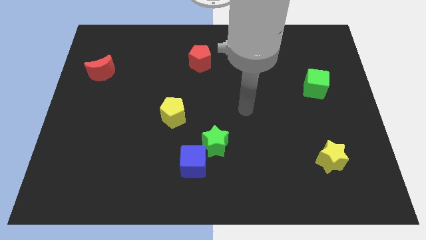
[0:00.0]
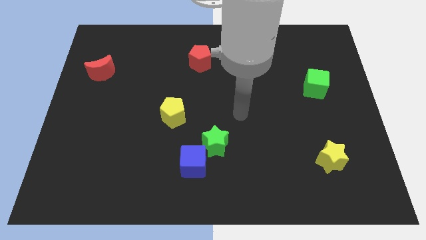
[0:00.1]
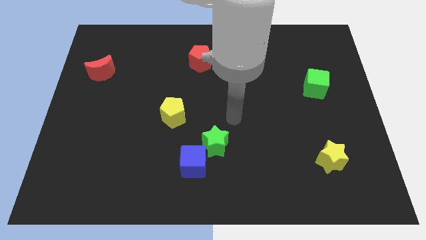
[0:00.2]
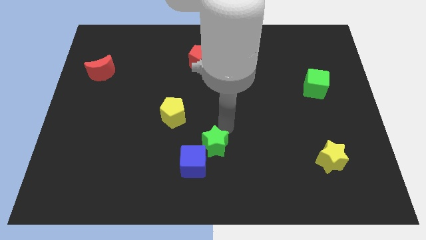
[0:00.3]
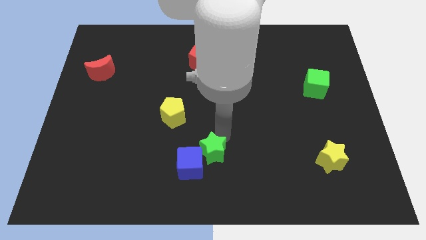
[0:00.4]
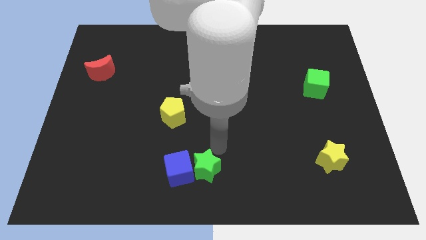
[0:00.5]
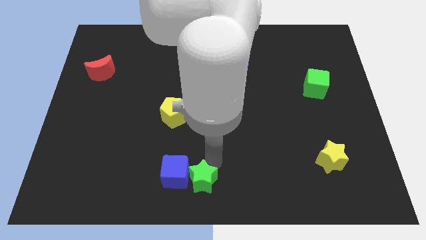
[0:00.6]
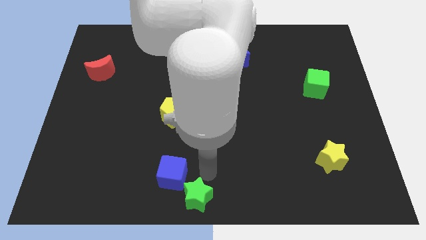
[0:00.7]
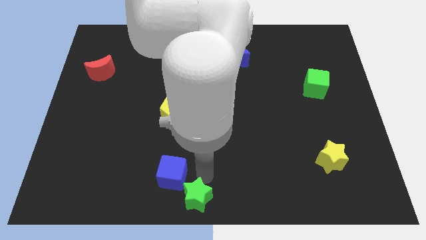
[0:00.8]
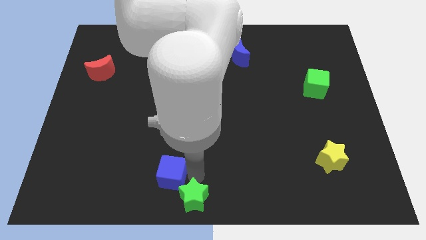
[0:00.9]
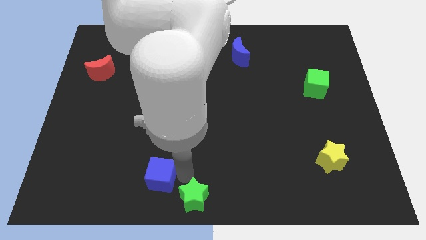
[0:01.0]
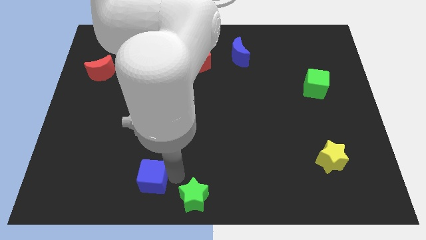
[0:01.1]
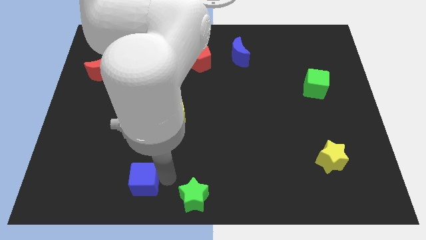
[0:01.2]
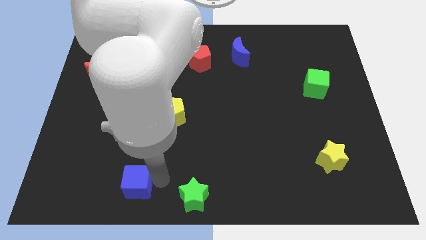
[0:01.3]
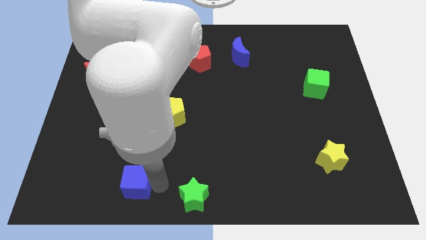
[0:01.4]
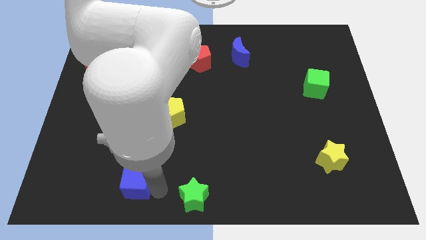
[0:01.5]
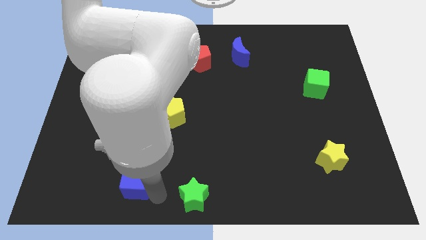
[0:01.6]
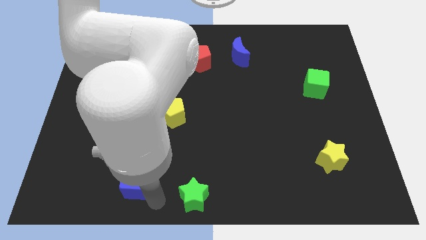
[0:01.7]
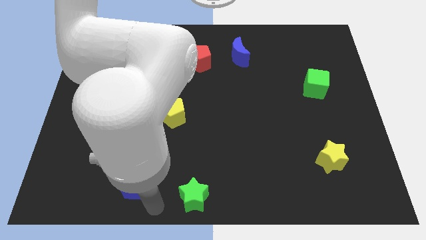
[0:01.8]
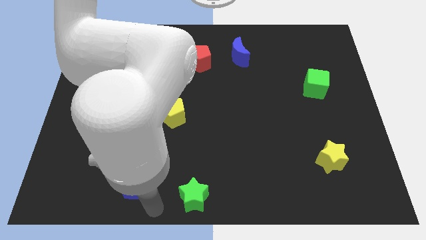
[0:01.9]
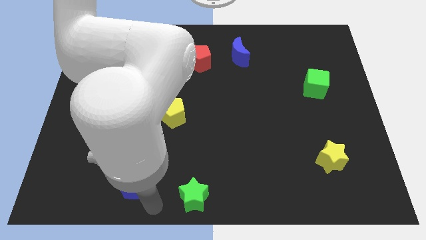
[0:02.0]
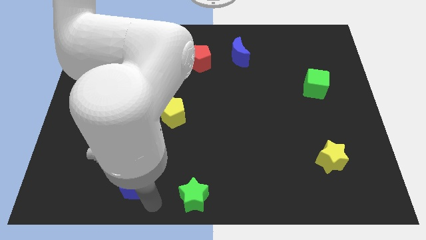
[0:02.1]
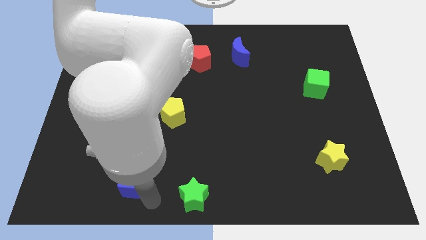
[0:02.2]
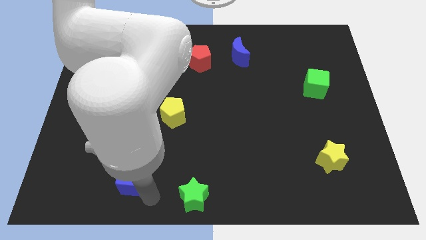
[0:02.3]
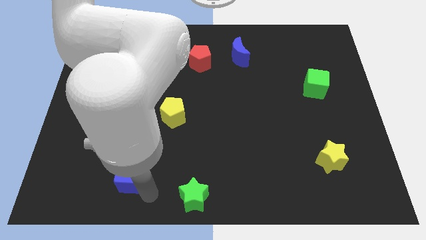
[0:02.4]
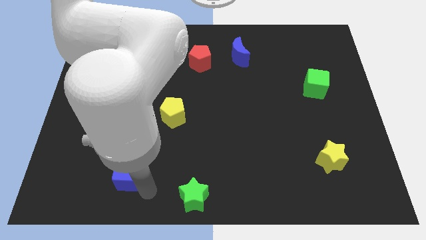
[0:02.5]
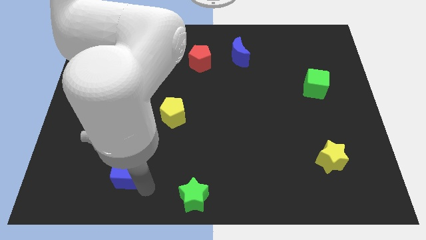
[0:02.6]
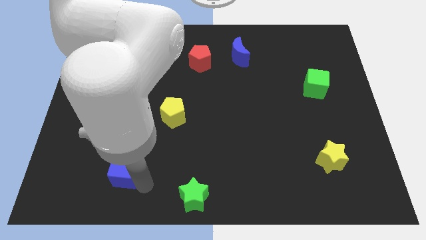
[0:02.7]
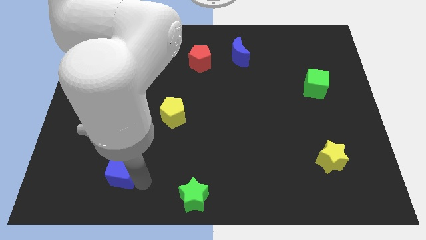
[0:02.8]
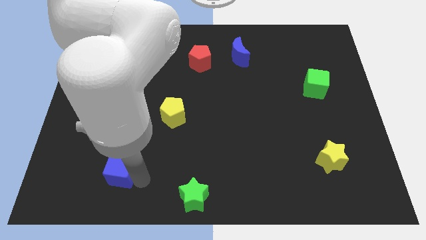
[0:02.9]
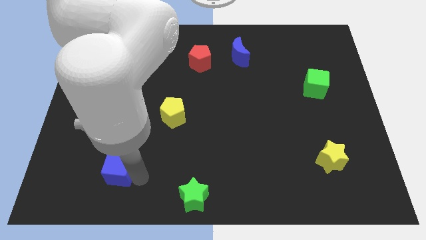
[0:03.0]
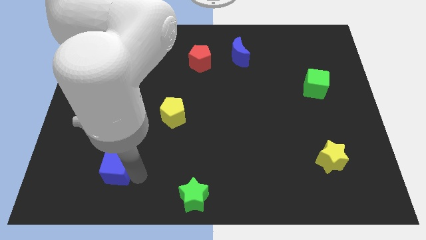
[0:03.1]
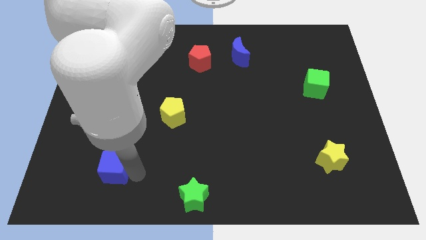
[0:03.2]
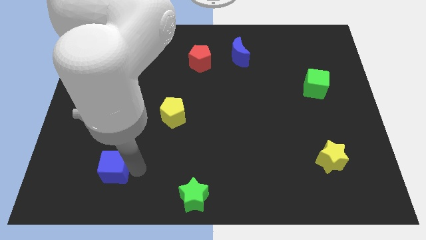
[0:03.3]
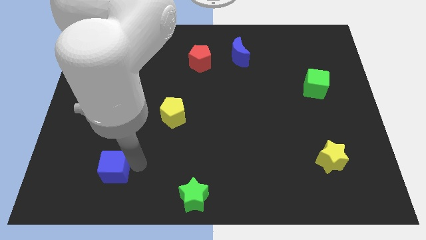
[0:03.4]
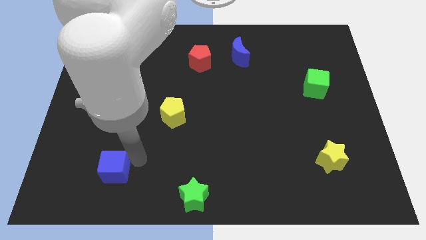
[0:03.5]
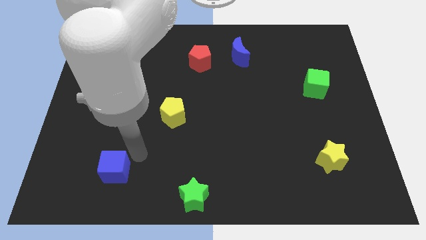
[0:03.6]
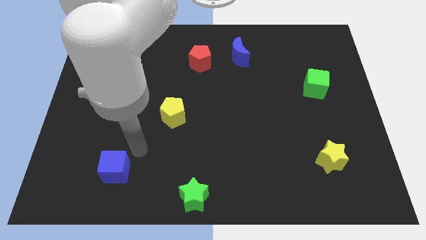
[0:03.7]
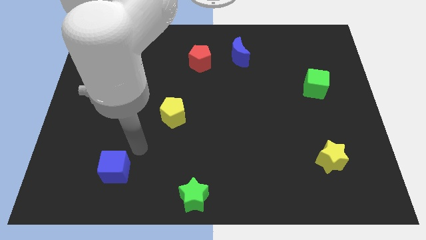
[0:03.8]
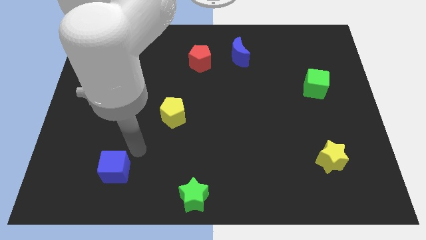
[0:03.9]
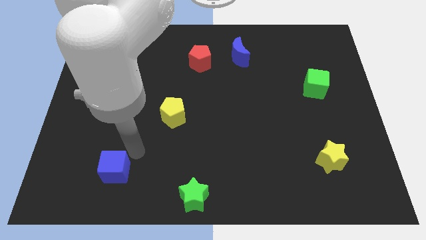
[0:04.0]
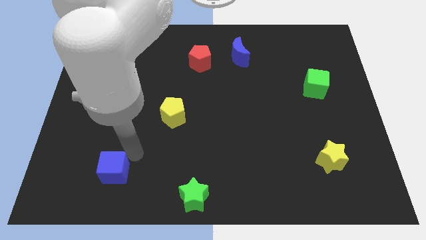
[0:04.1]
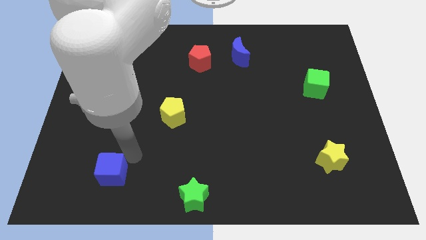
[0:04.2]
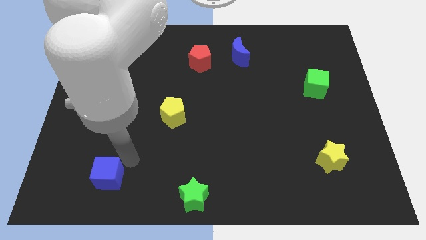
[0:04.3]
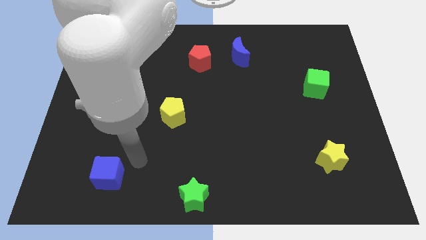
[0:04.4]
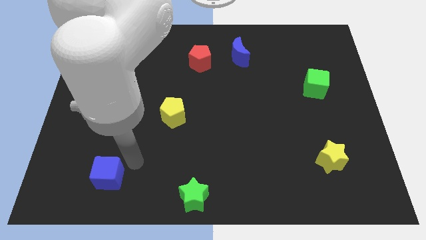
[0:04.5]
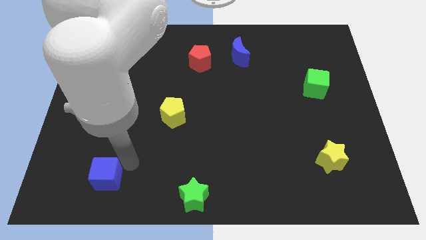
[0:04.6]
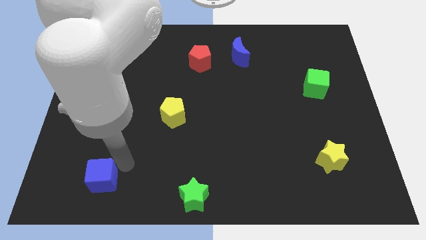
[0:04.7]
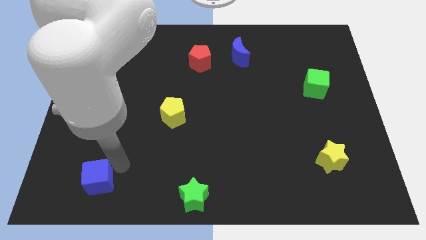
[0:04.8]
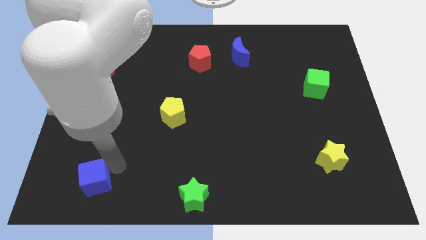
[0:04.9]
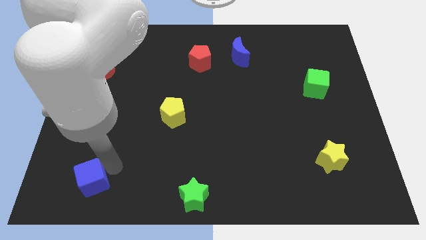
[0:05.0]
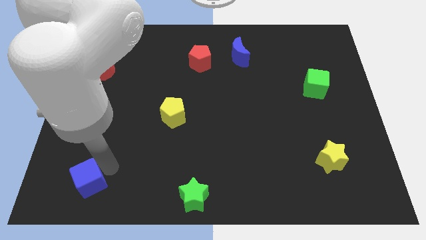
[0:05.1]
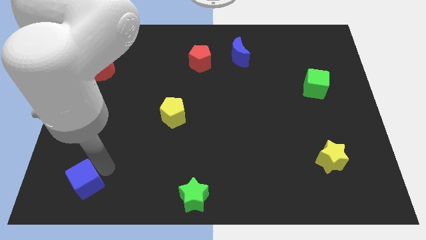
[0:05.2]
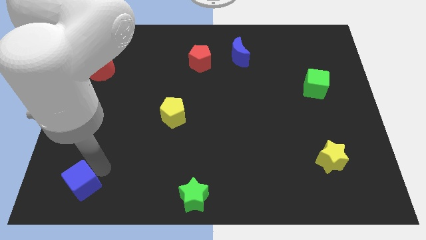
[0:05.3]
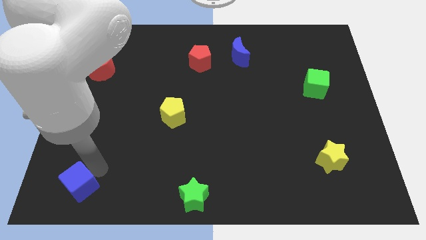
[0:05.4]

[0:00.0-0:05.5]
put the blue cube to the bottom left

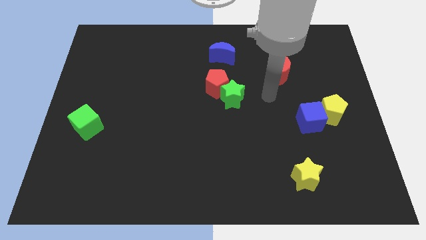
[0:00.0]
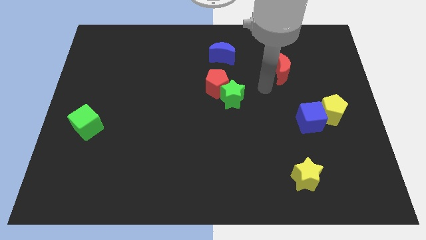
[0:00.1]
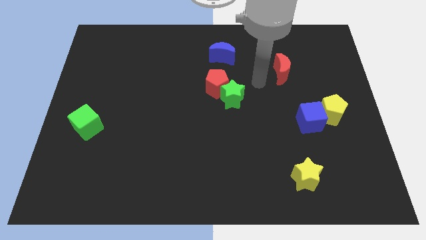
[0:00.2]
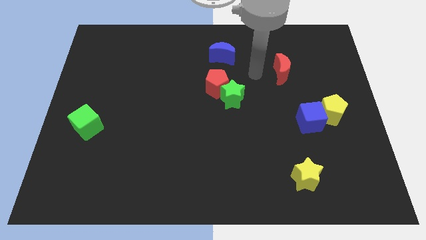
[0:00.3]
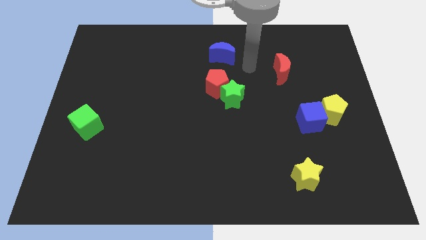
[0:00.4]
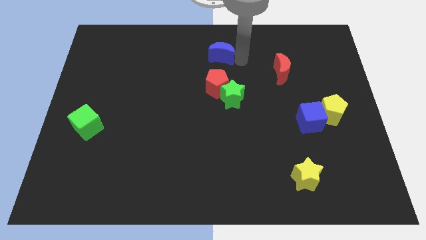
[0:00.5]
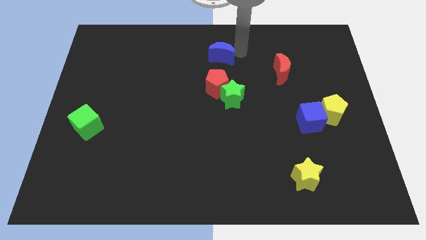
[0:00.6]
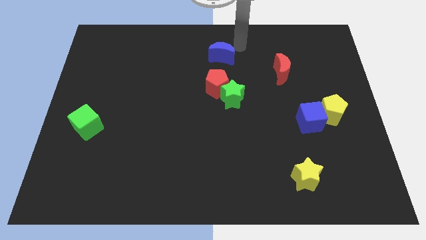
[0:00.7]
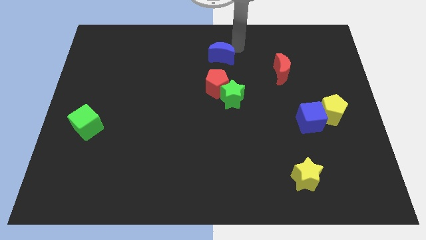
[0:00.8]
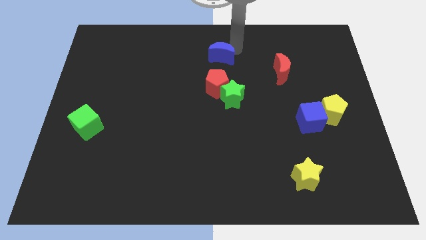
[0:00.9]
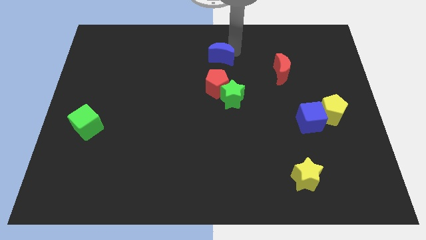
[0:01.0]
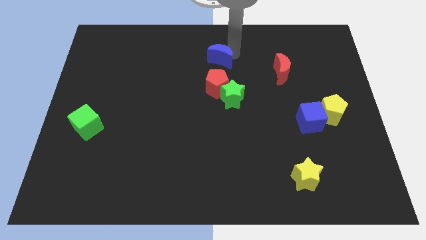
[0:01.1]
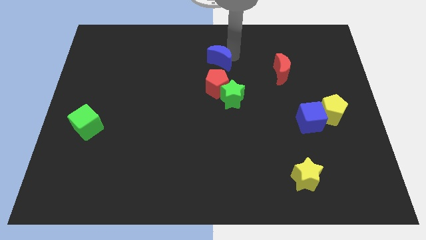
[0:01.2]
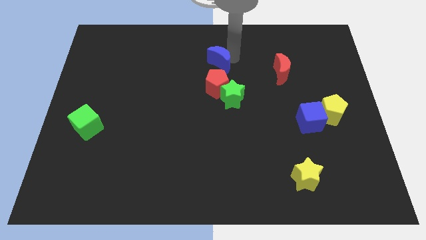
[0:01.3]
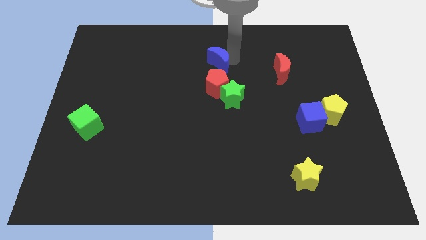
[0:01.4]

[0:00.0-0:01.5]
put the blue moon to the middle

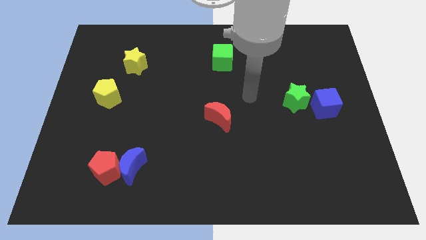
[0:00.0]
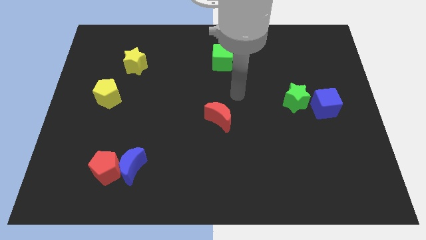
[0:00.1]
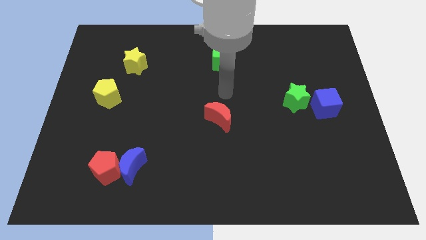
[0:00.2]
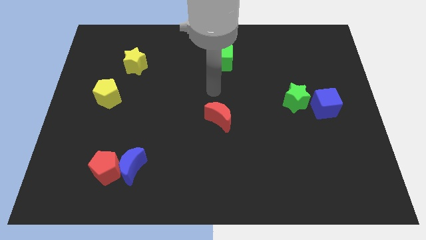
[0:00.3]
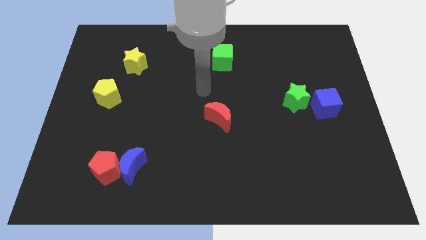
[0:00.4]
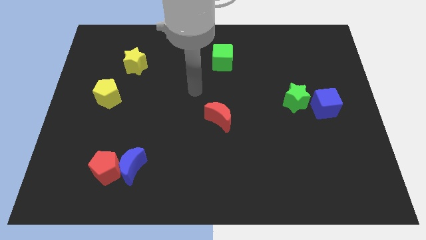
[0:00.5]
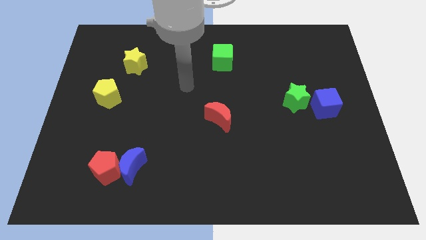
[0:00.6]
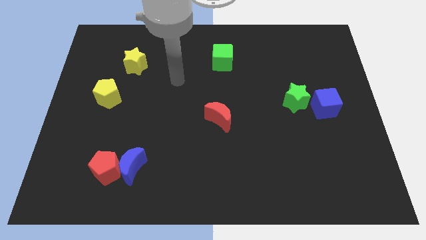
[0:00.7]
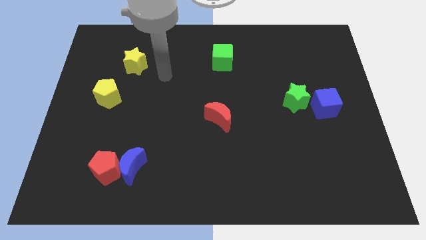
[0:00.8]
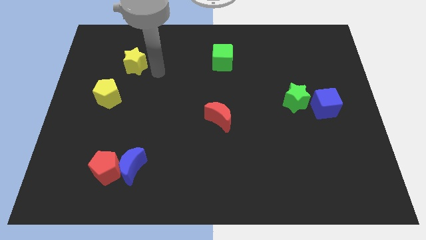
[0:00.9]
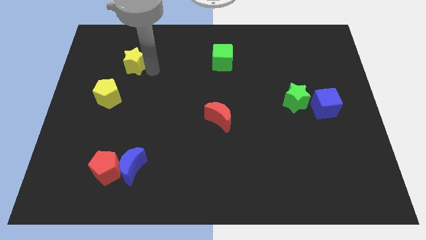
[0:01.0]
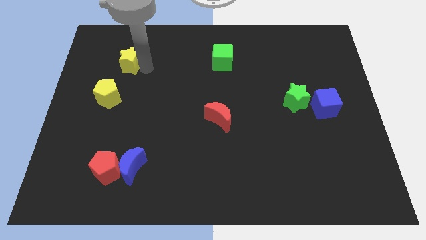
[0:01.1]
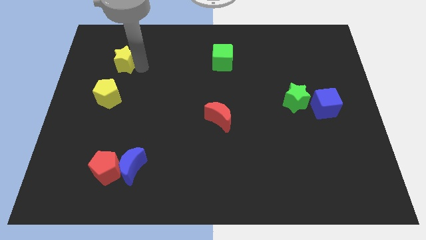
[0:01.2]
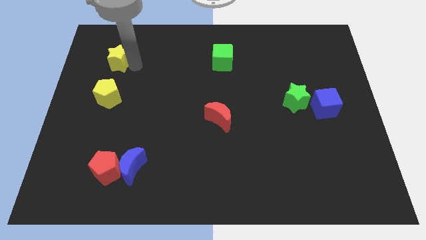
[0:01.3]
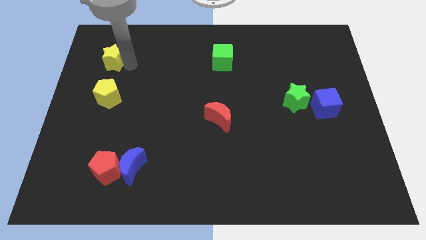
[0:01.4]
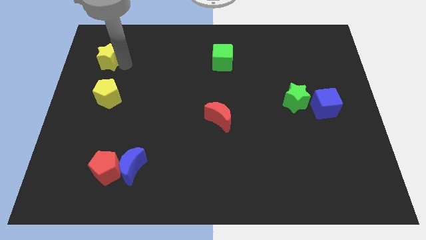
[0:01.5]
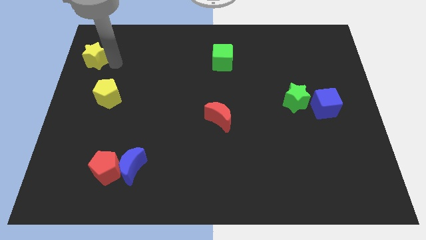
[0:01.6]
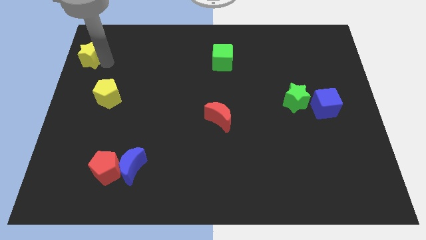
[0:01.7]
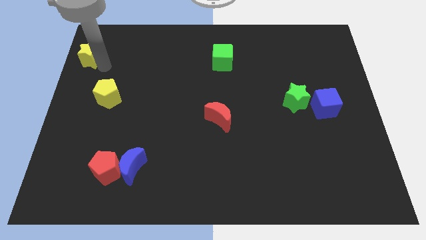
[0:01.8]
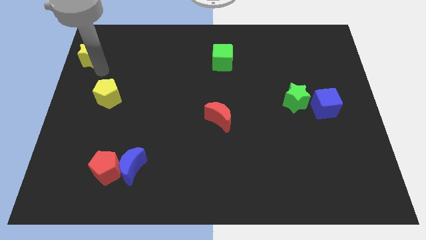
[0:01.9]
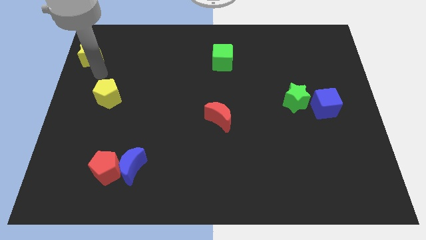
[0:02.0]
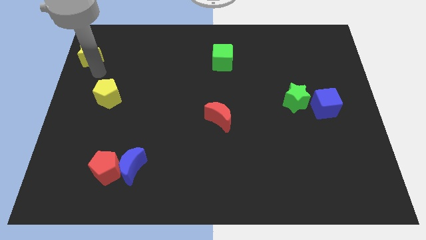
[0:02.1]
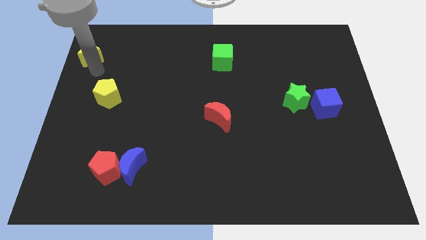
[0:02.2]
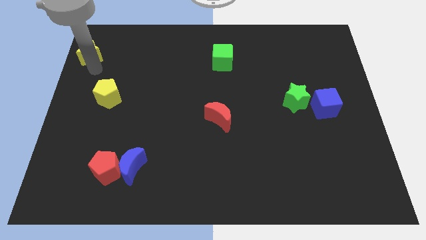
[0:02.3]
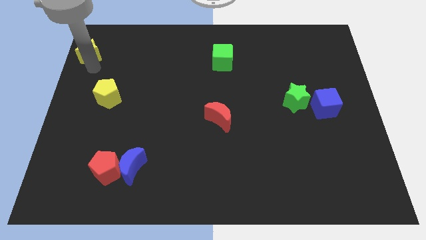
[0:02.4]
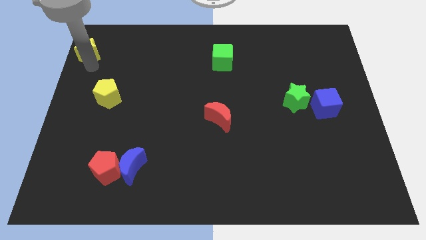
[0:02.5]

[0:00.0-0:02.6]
push the yellow star to the top left
